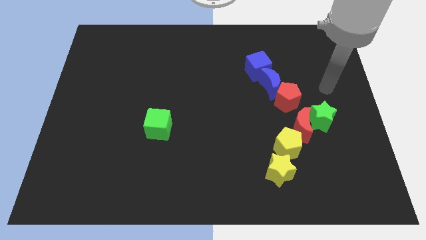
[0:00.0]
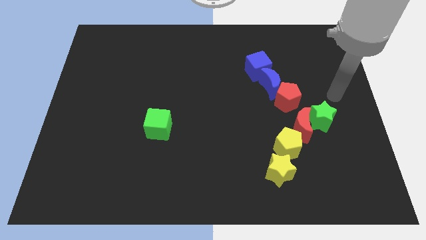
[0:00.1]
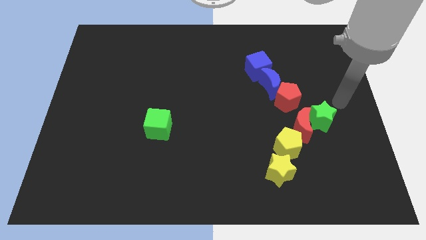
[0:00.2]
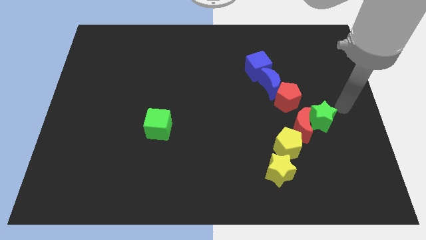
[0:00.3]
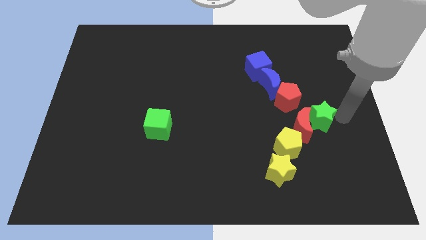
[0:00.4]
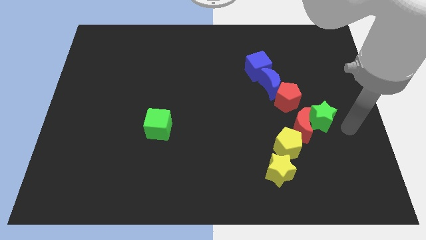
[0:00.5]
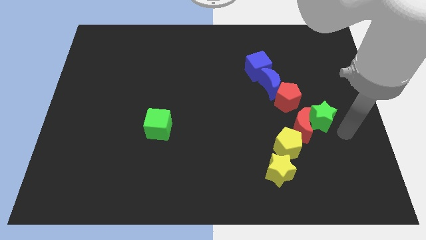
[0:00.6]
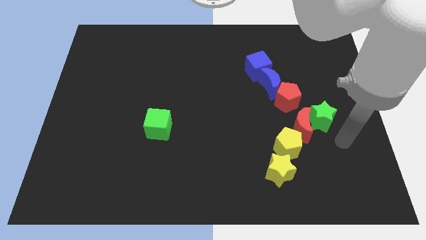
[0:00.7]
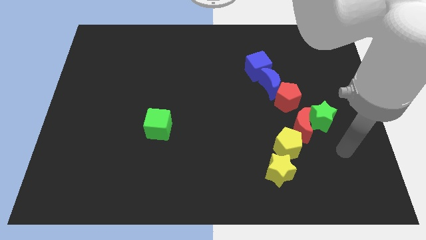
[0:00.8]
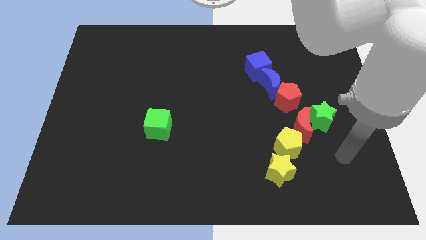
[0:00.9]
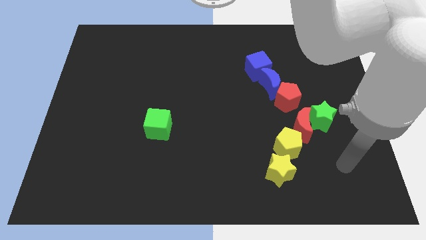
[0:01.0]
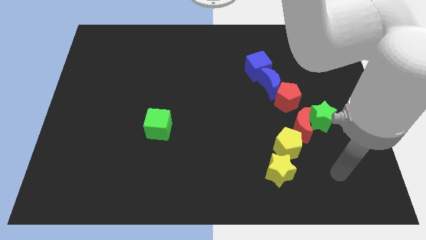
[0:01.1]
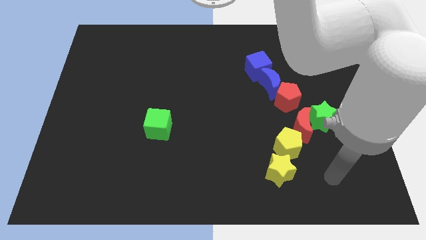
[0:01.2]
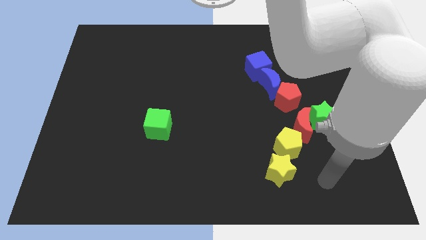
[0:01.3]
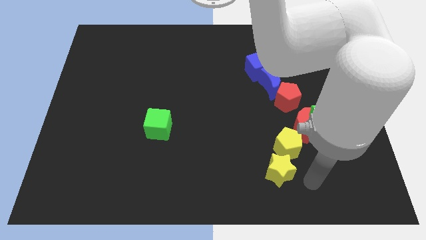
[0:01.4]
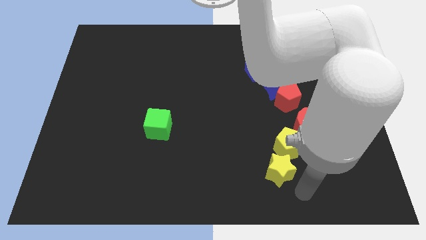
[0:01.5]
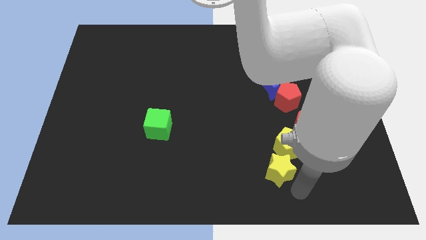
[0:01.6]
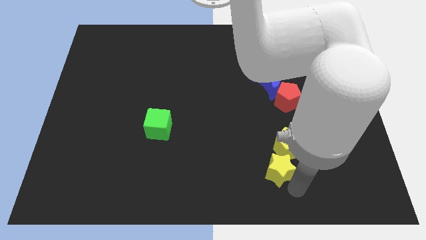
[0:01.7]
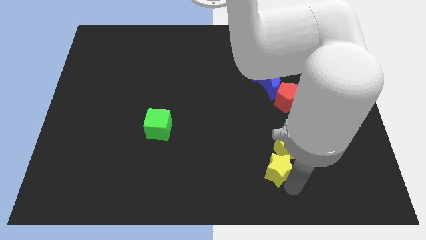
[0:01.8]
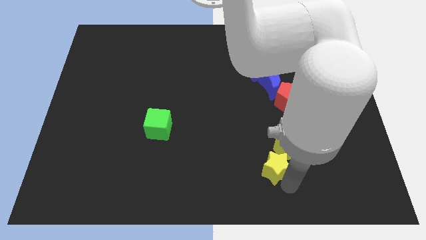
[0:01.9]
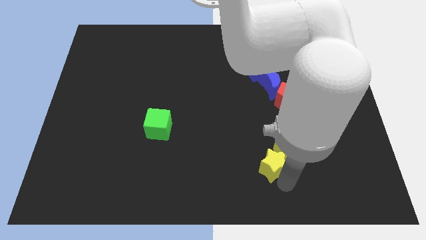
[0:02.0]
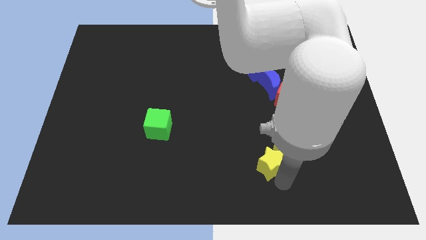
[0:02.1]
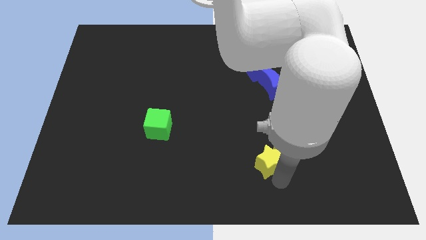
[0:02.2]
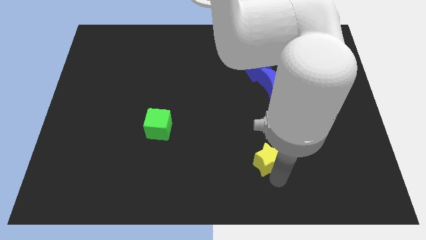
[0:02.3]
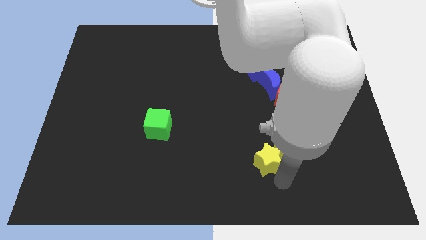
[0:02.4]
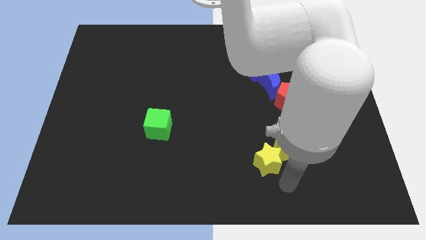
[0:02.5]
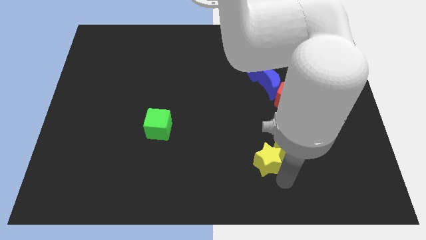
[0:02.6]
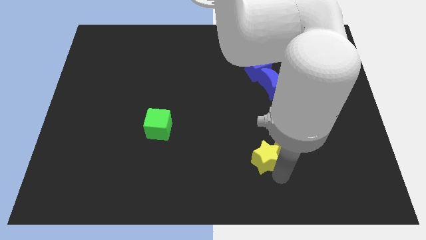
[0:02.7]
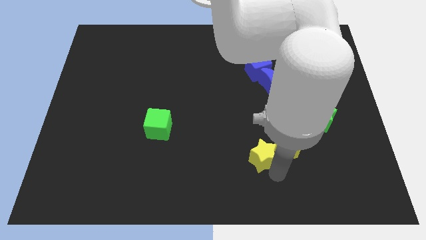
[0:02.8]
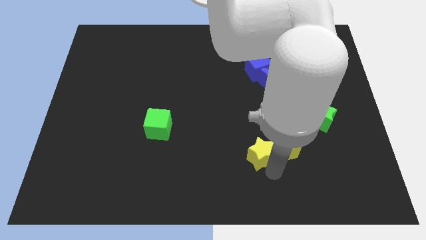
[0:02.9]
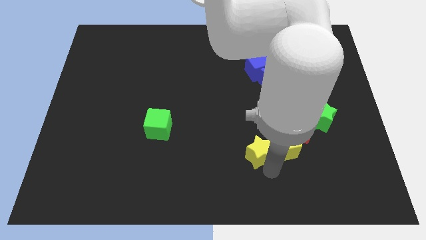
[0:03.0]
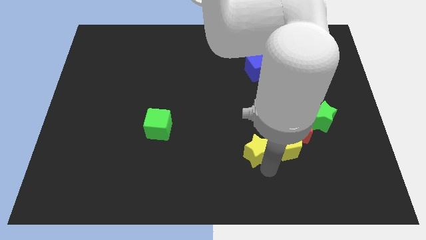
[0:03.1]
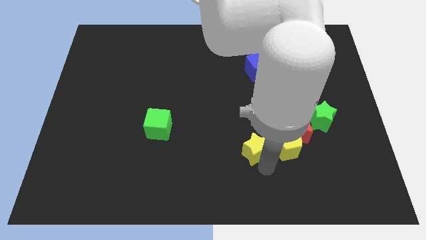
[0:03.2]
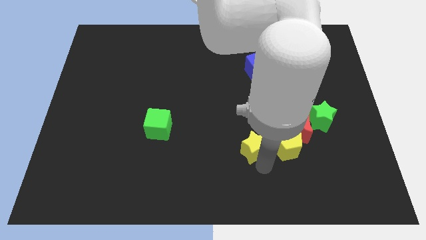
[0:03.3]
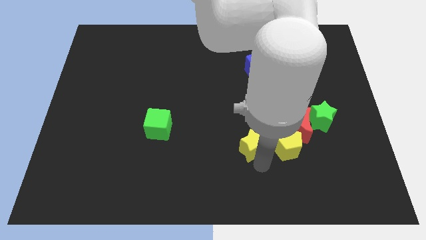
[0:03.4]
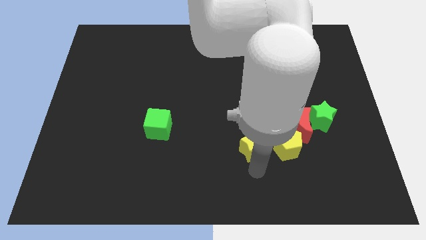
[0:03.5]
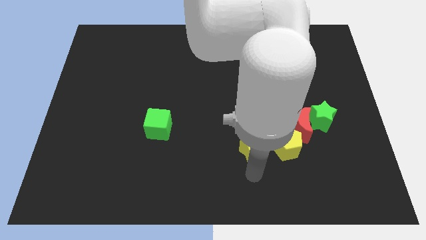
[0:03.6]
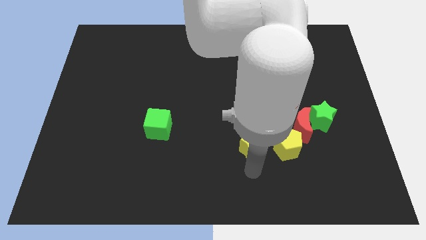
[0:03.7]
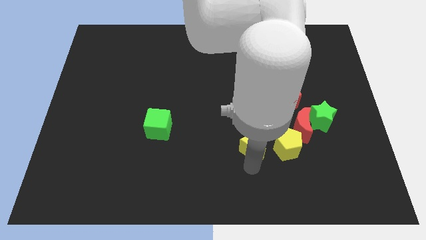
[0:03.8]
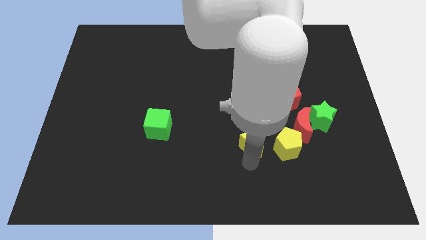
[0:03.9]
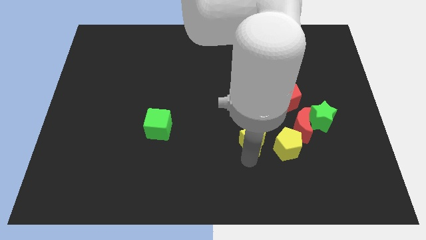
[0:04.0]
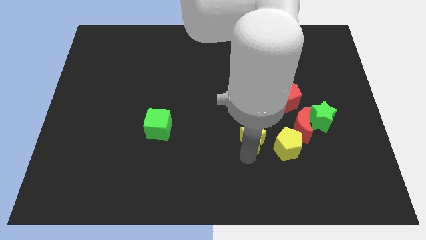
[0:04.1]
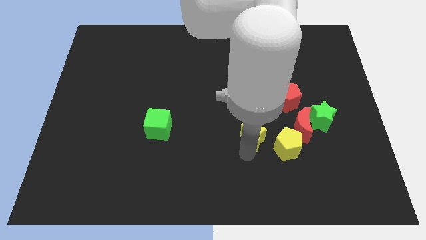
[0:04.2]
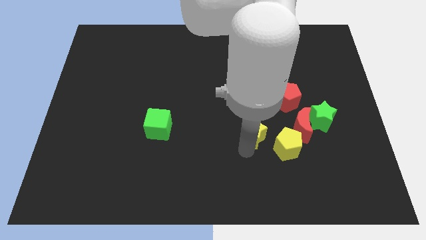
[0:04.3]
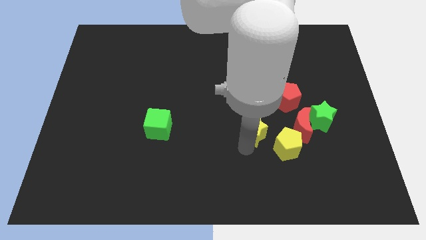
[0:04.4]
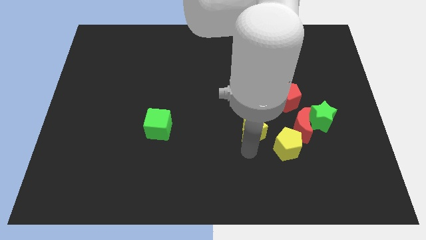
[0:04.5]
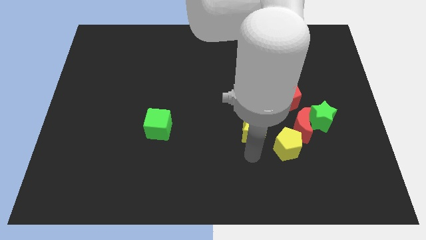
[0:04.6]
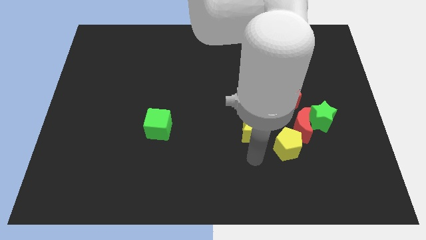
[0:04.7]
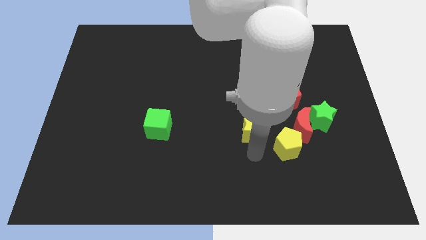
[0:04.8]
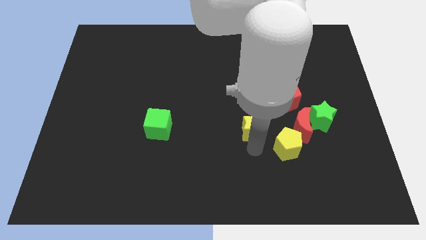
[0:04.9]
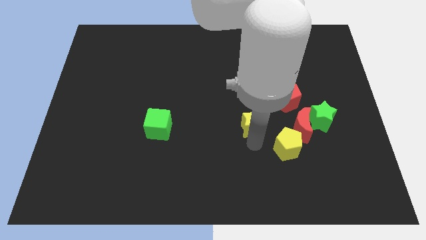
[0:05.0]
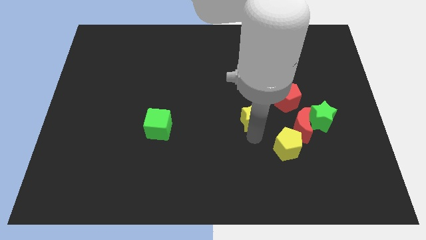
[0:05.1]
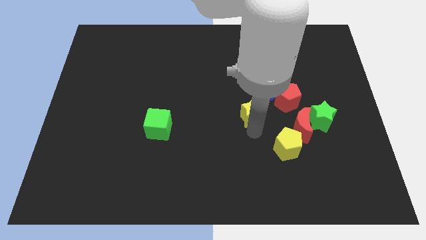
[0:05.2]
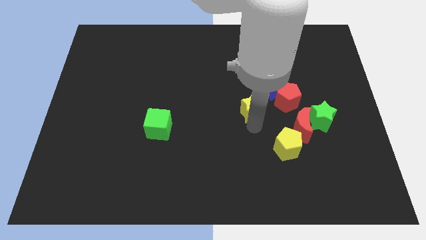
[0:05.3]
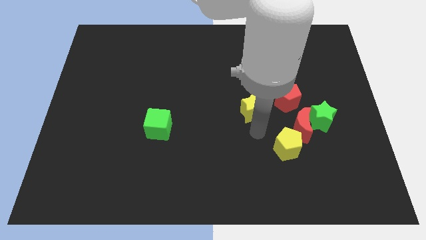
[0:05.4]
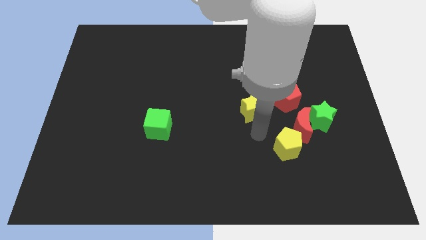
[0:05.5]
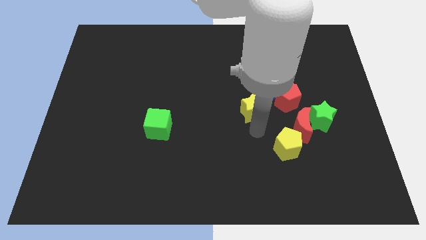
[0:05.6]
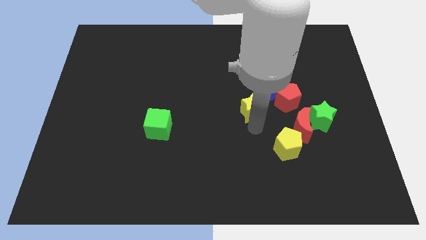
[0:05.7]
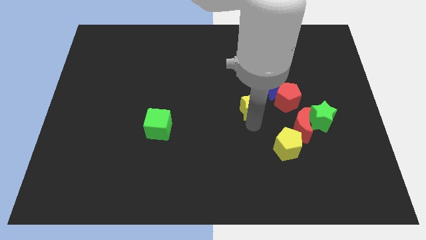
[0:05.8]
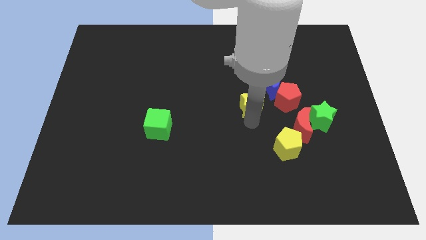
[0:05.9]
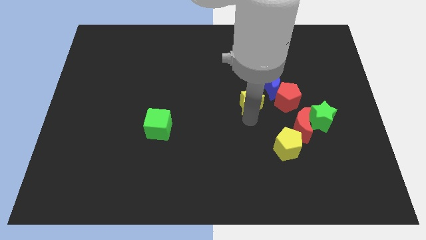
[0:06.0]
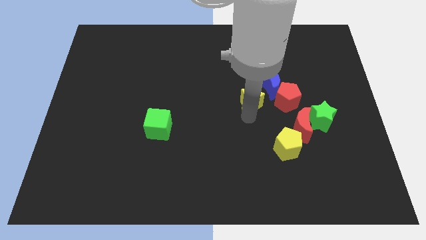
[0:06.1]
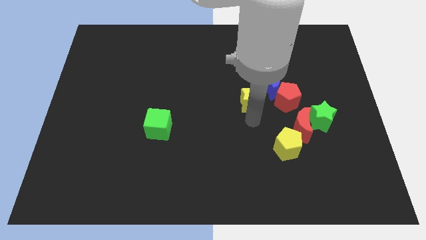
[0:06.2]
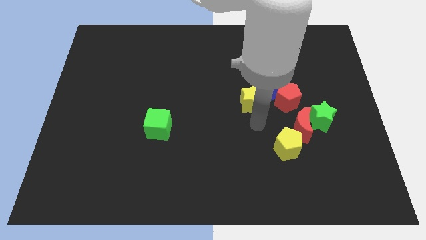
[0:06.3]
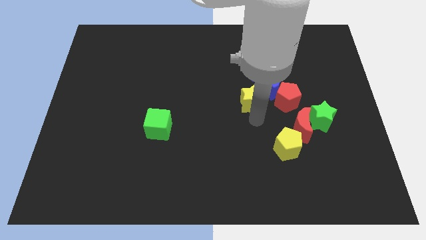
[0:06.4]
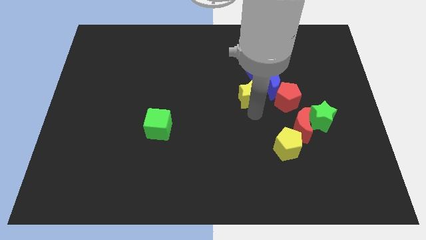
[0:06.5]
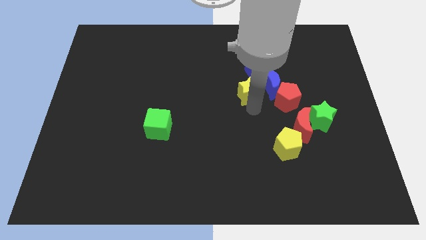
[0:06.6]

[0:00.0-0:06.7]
move the yellow star up

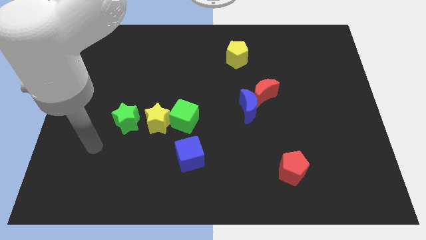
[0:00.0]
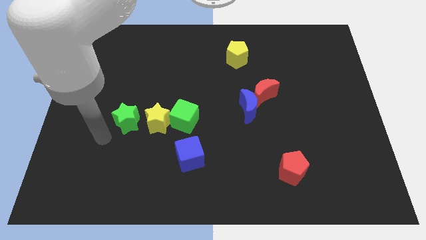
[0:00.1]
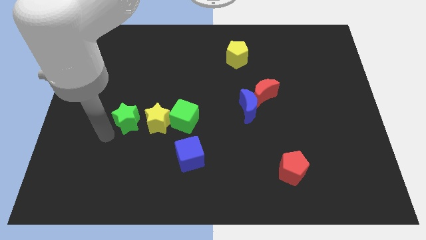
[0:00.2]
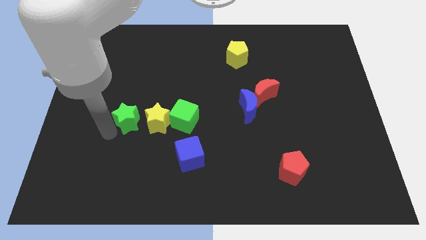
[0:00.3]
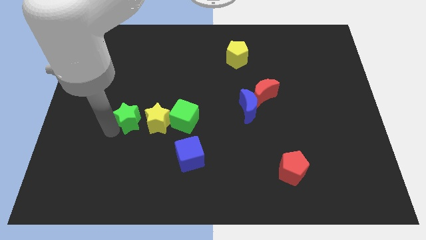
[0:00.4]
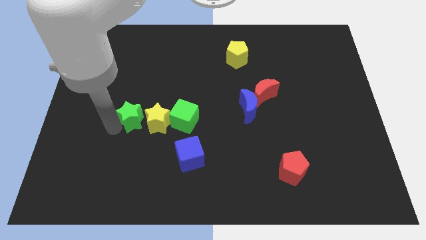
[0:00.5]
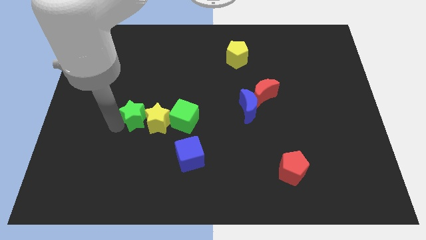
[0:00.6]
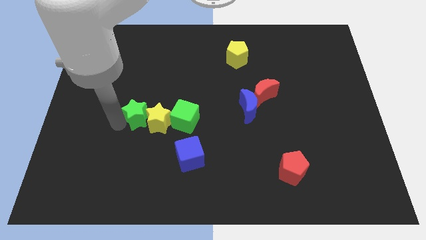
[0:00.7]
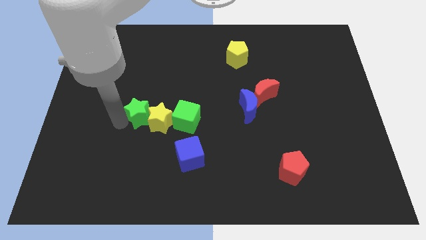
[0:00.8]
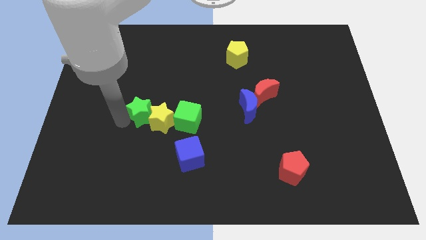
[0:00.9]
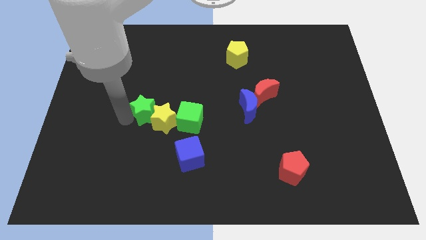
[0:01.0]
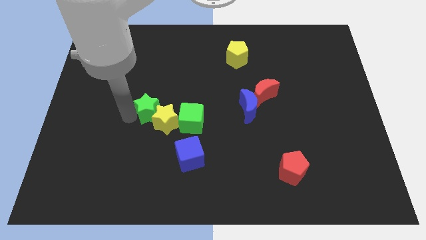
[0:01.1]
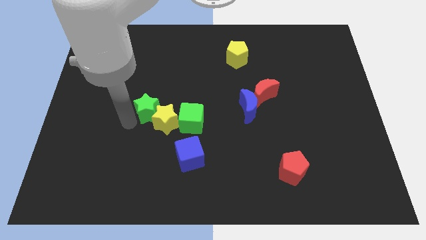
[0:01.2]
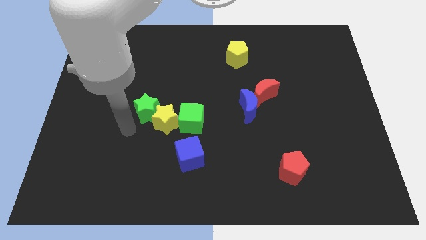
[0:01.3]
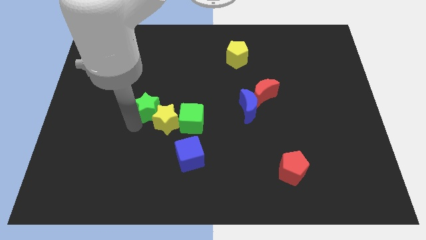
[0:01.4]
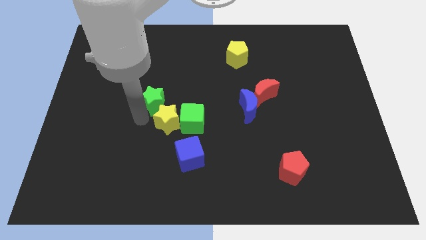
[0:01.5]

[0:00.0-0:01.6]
slightly move the green star up and right diagonally
